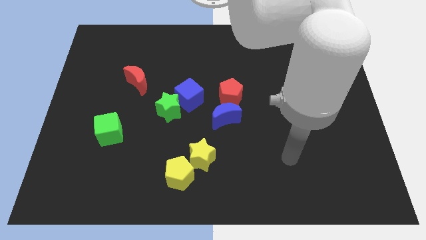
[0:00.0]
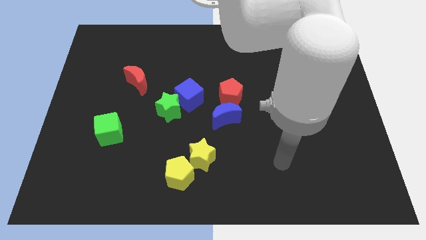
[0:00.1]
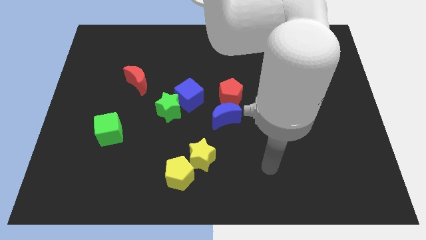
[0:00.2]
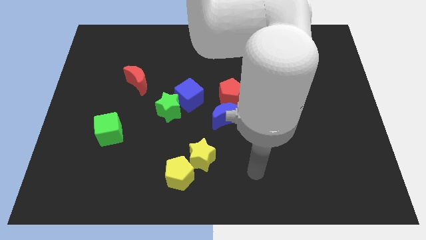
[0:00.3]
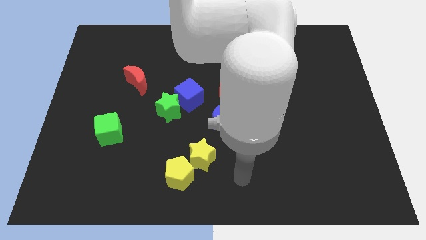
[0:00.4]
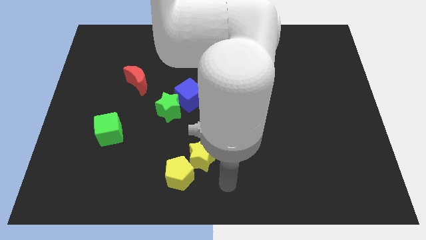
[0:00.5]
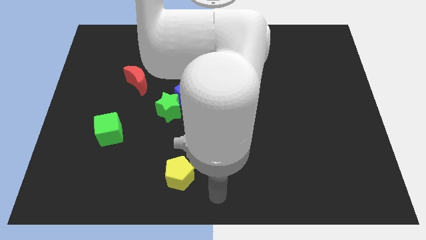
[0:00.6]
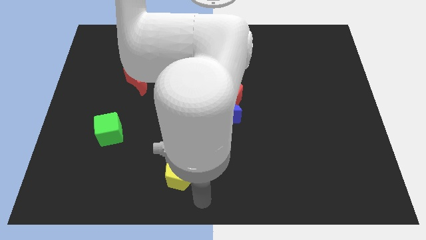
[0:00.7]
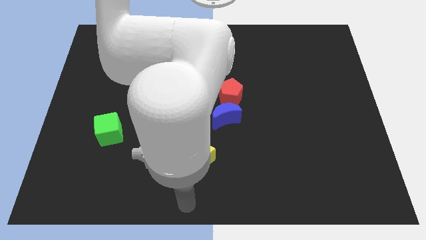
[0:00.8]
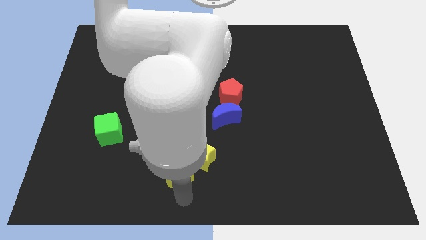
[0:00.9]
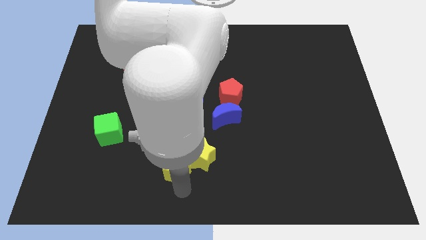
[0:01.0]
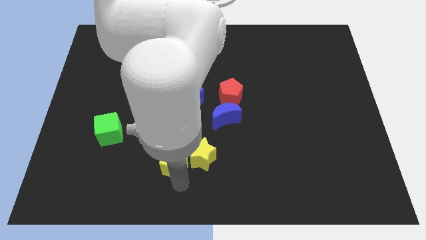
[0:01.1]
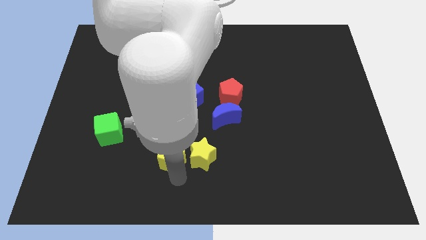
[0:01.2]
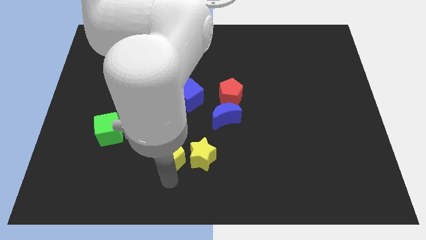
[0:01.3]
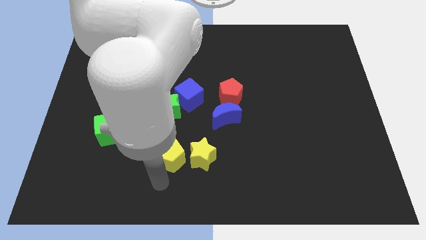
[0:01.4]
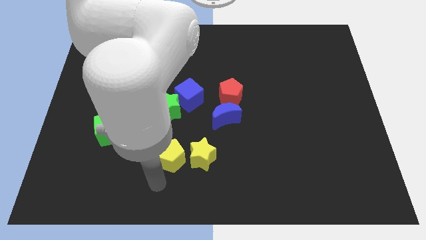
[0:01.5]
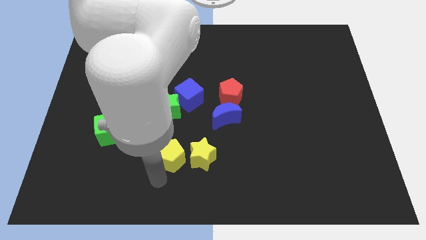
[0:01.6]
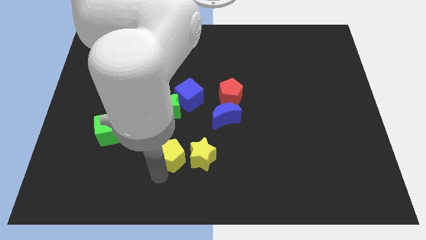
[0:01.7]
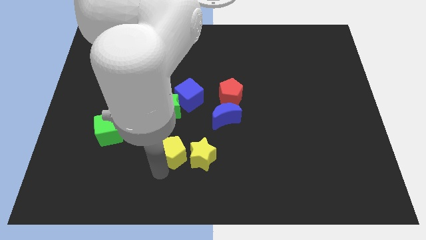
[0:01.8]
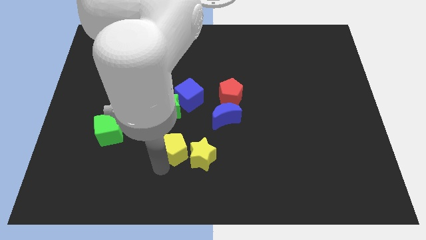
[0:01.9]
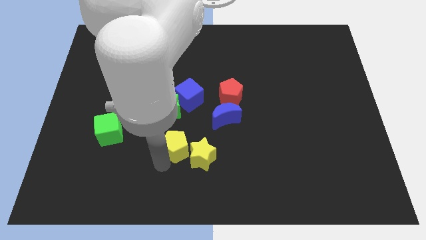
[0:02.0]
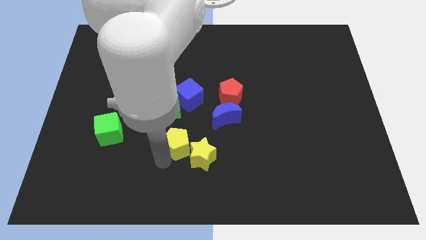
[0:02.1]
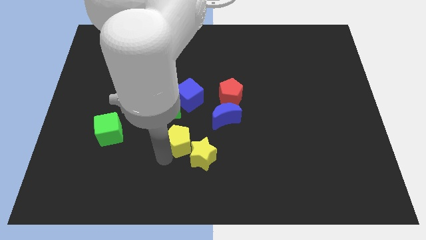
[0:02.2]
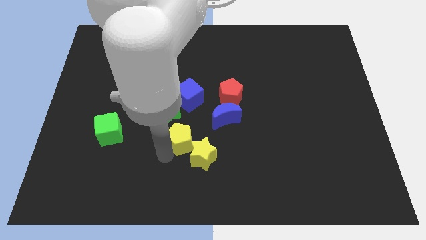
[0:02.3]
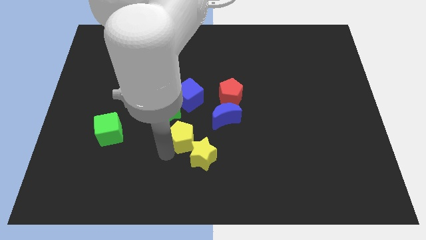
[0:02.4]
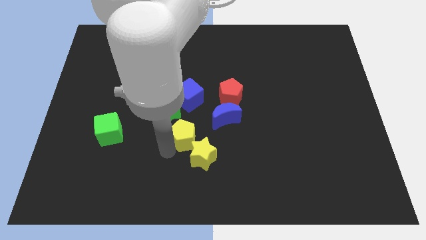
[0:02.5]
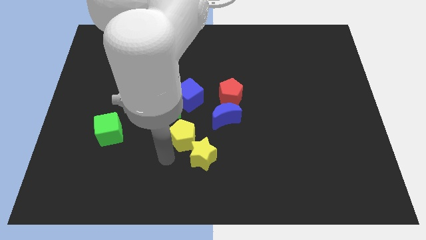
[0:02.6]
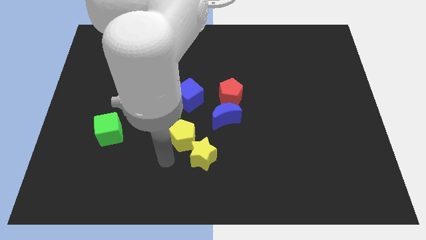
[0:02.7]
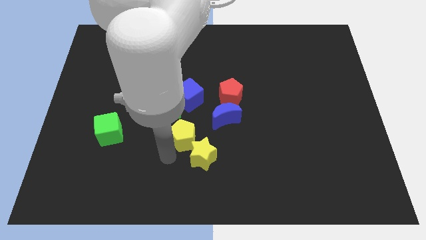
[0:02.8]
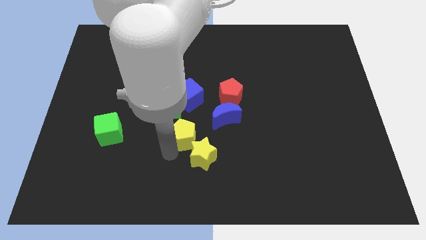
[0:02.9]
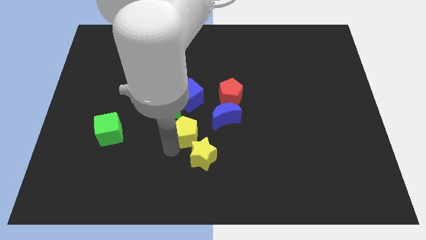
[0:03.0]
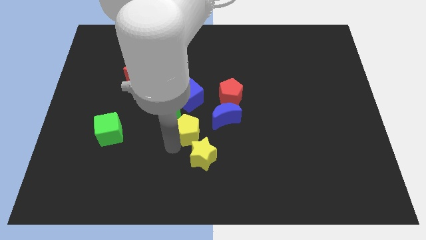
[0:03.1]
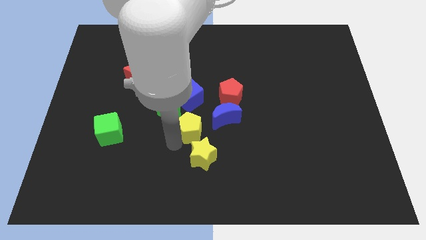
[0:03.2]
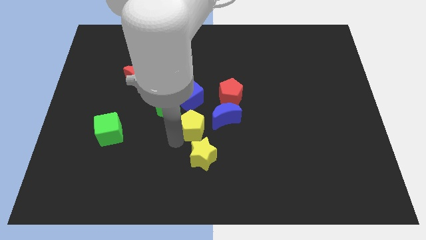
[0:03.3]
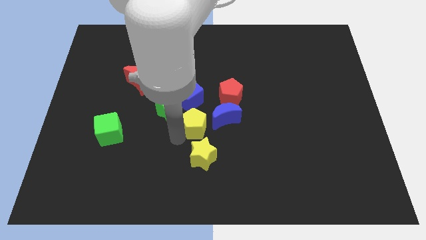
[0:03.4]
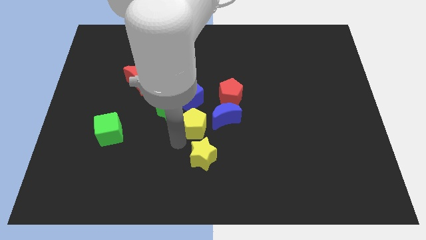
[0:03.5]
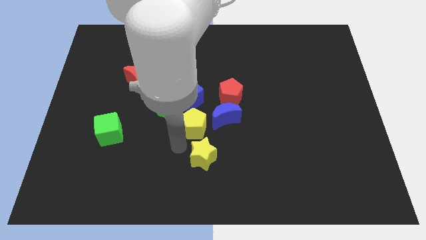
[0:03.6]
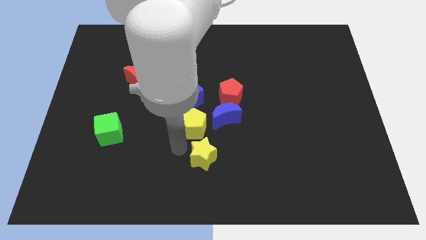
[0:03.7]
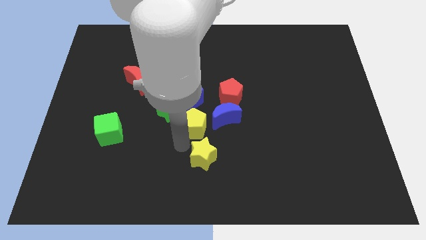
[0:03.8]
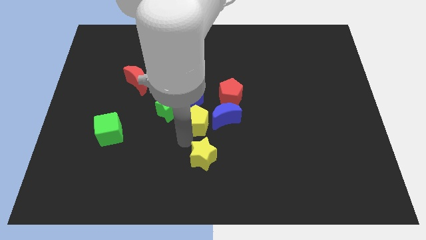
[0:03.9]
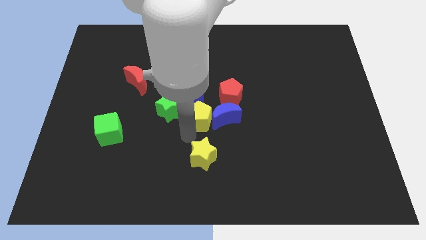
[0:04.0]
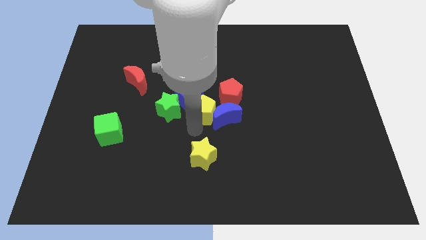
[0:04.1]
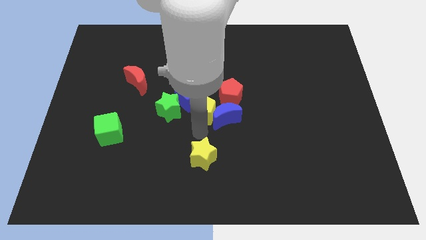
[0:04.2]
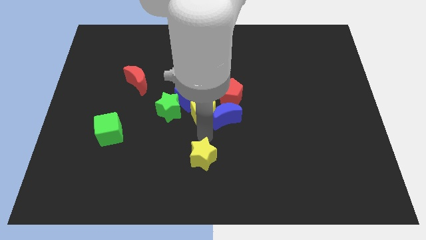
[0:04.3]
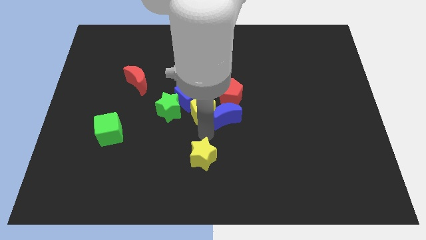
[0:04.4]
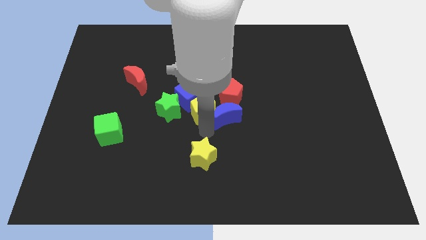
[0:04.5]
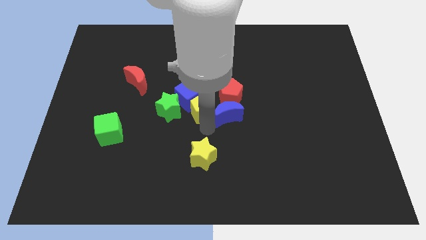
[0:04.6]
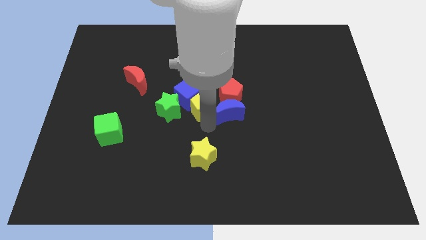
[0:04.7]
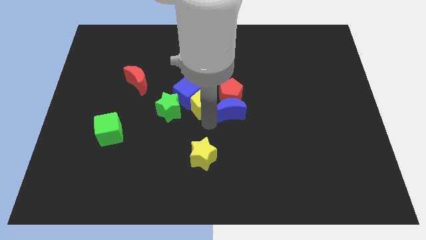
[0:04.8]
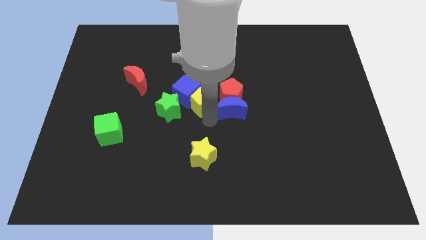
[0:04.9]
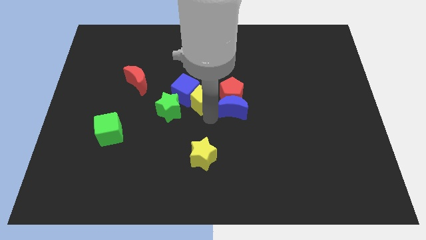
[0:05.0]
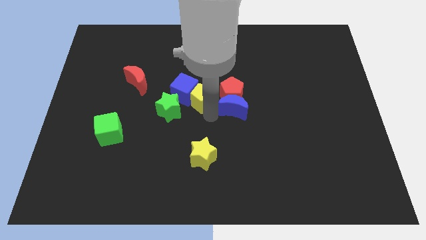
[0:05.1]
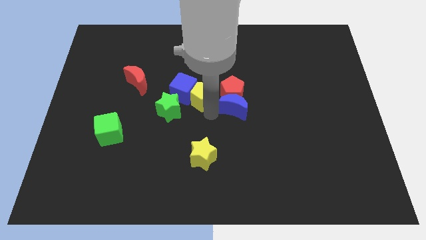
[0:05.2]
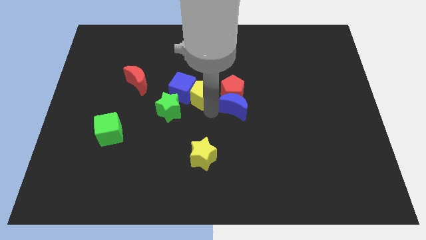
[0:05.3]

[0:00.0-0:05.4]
move the yellow pentagon upwards

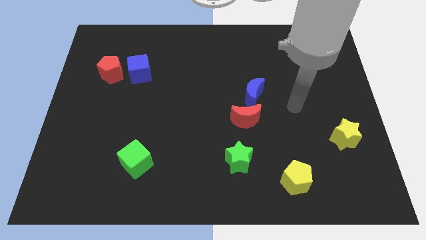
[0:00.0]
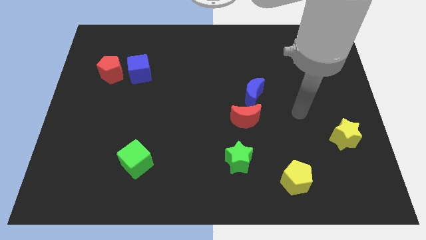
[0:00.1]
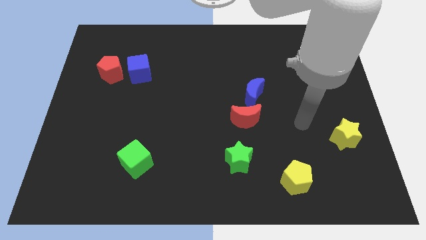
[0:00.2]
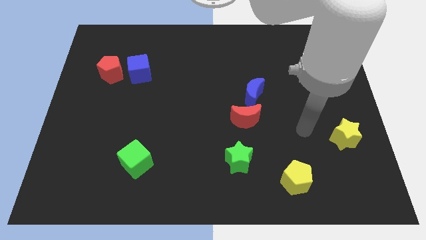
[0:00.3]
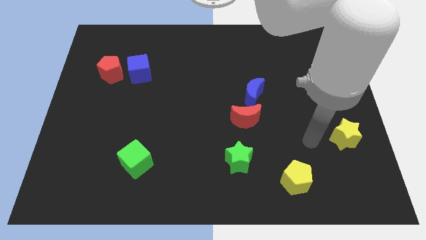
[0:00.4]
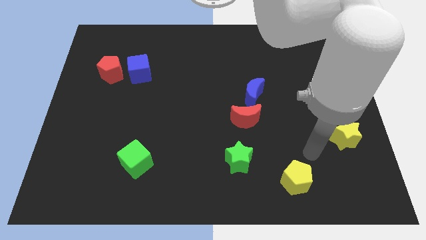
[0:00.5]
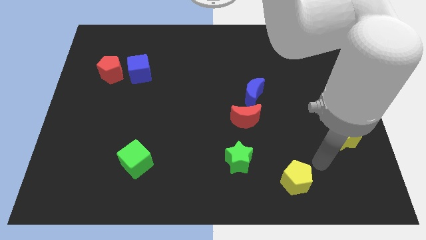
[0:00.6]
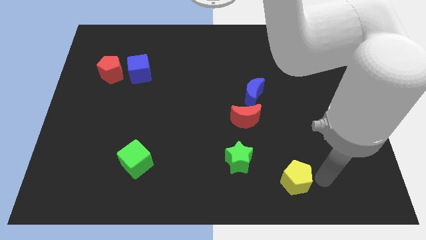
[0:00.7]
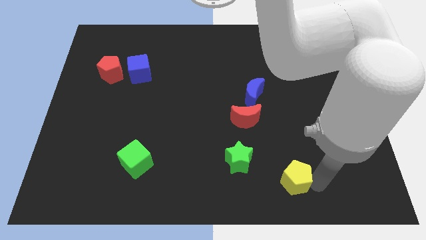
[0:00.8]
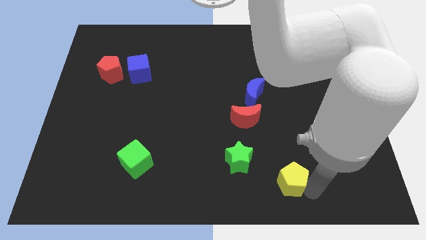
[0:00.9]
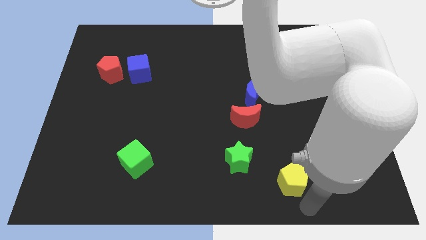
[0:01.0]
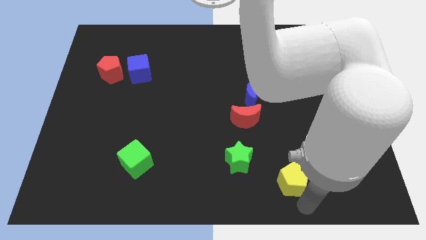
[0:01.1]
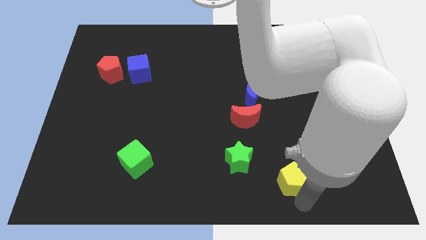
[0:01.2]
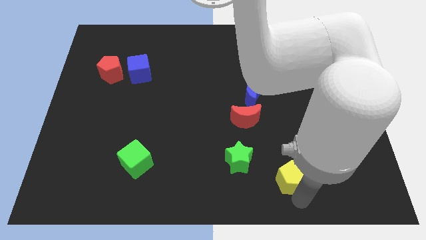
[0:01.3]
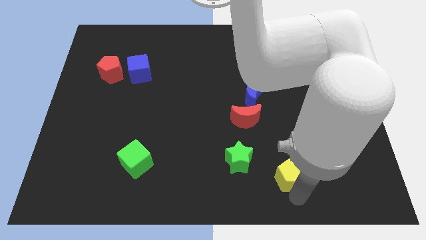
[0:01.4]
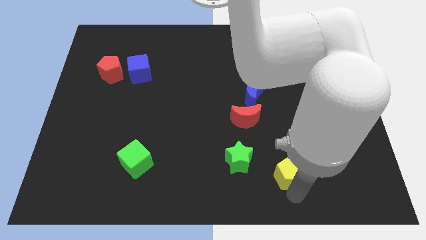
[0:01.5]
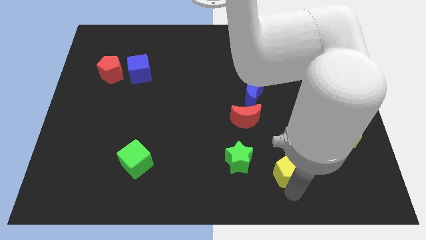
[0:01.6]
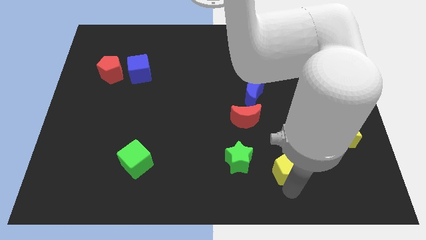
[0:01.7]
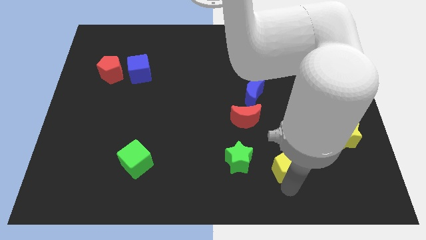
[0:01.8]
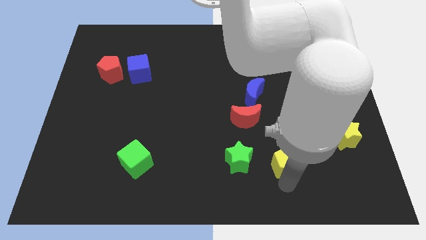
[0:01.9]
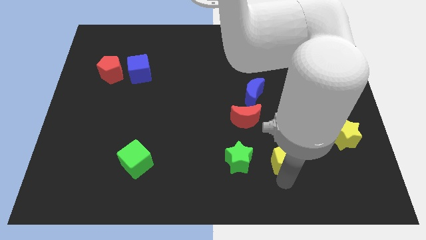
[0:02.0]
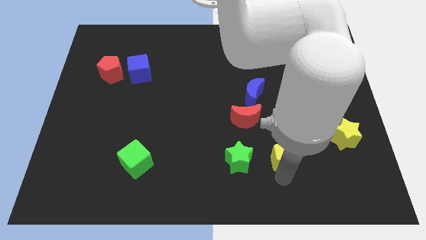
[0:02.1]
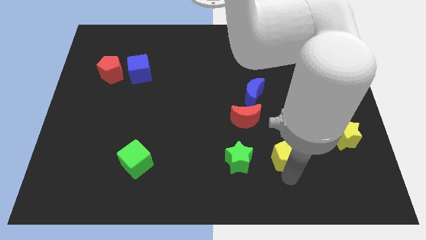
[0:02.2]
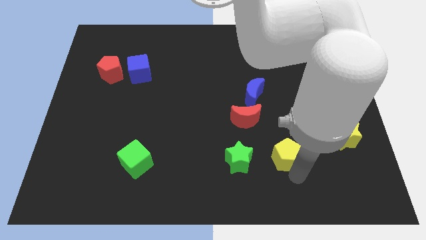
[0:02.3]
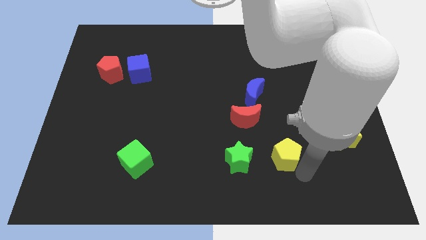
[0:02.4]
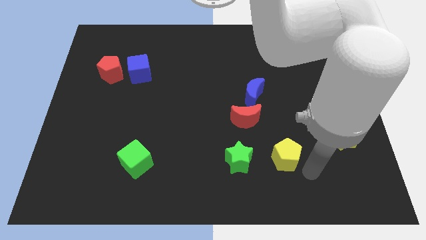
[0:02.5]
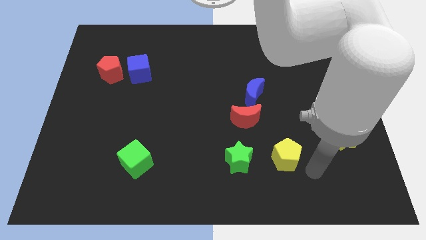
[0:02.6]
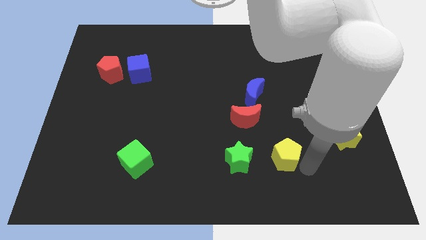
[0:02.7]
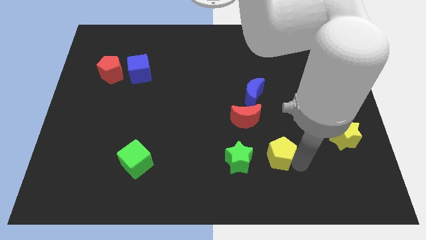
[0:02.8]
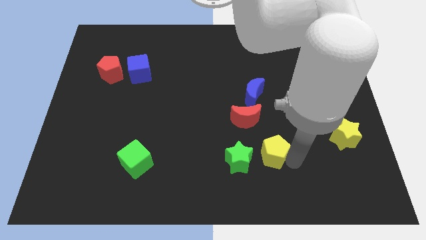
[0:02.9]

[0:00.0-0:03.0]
slightly push the yellow pentagon up and to the left
